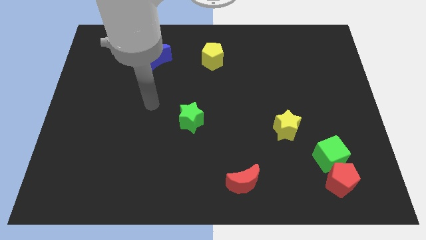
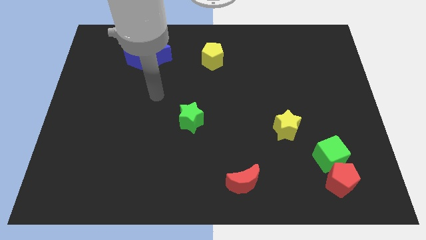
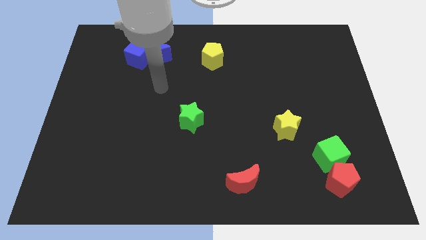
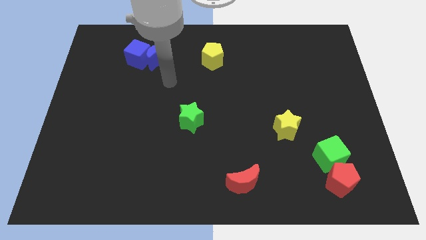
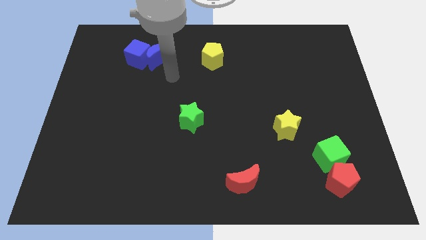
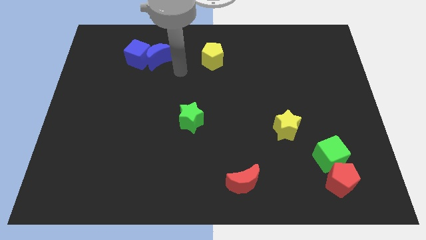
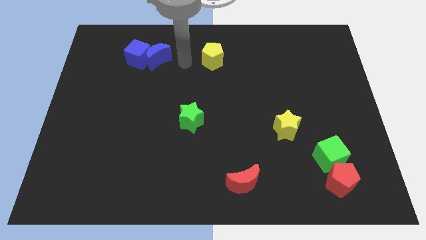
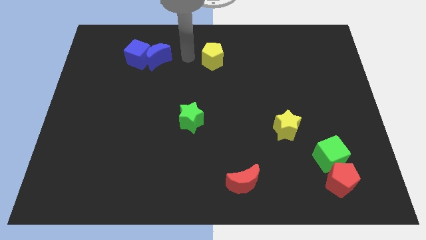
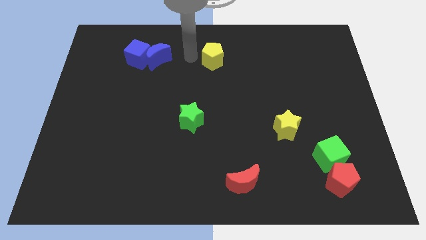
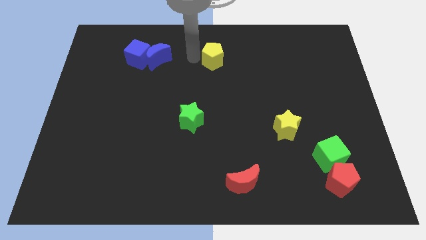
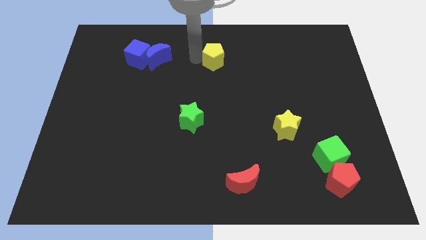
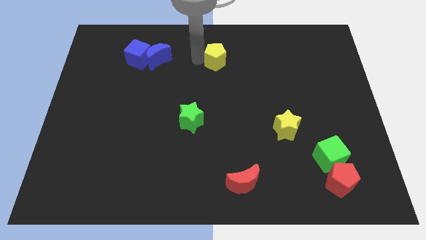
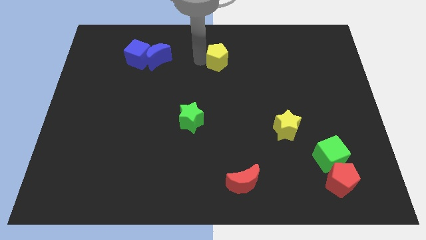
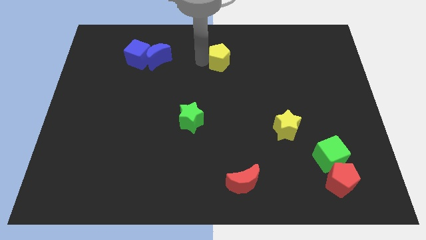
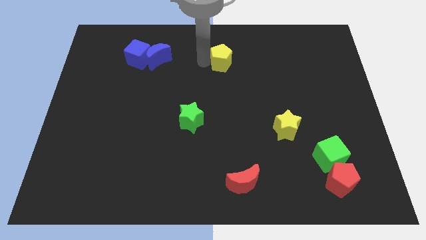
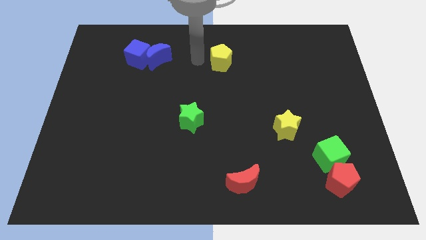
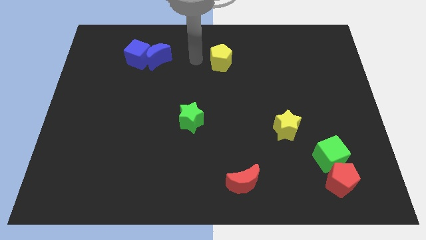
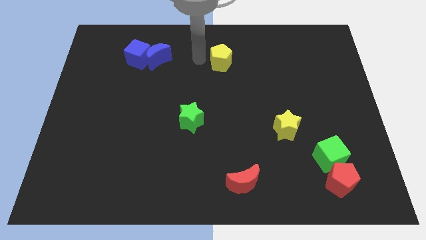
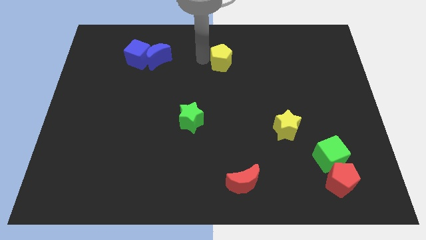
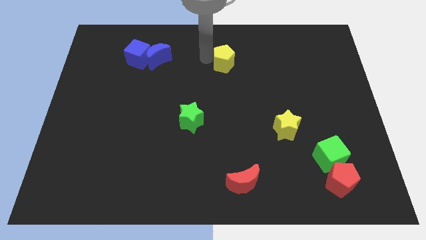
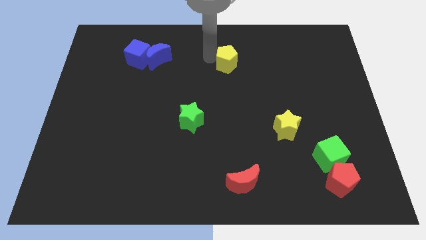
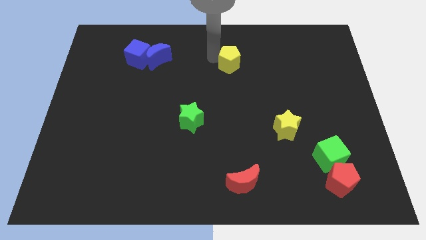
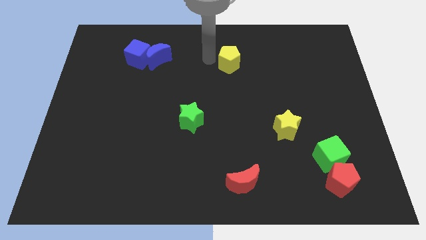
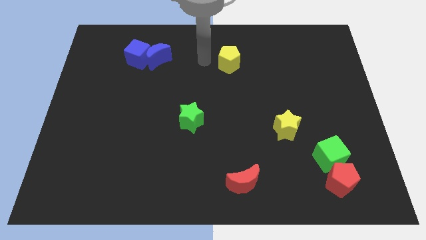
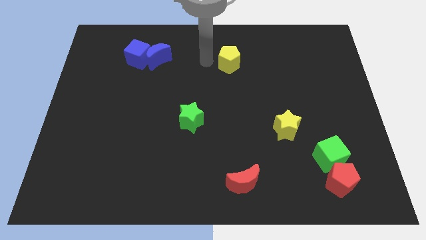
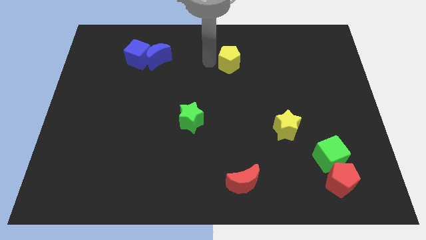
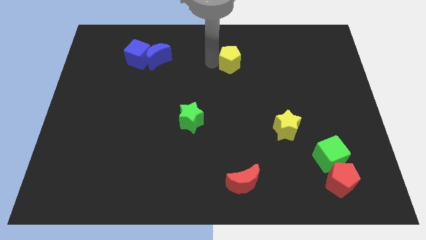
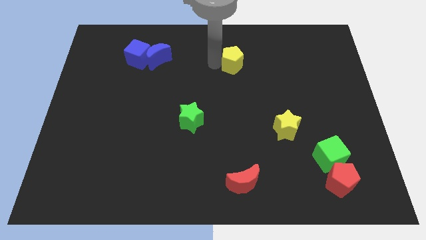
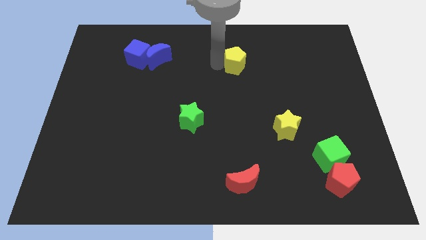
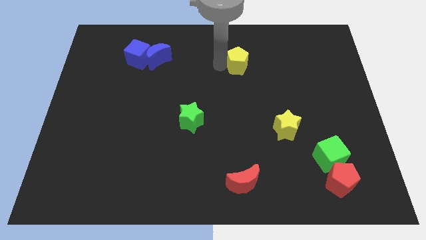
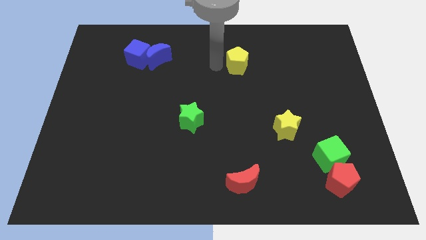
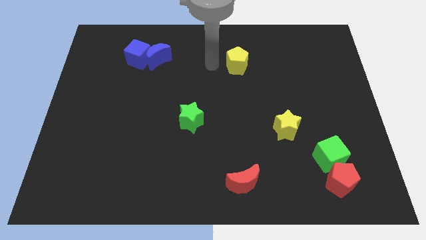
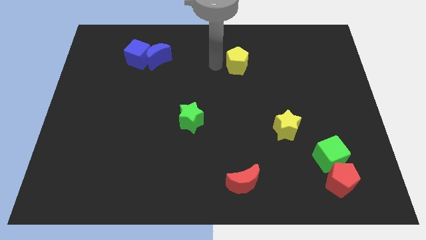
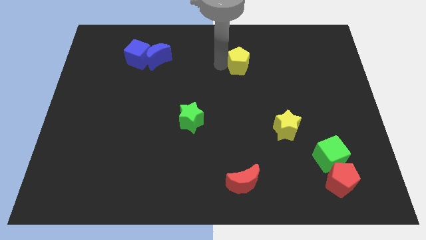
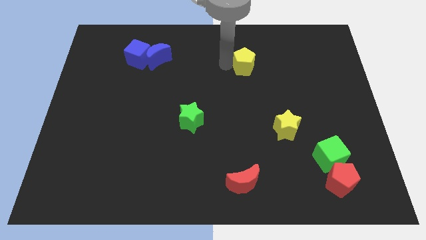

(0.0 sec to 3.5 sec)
push the yellow pentagon to the right a little

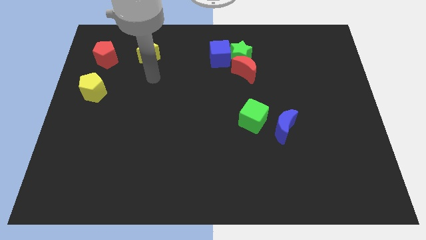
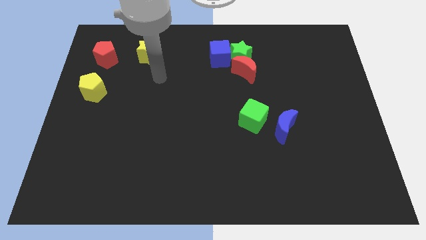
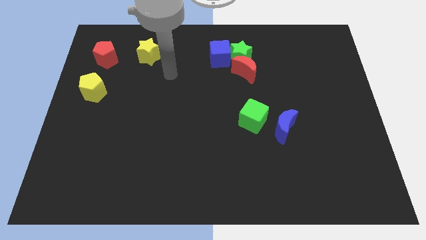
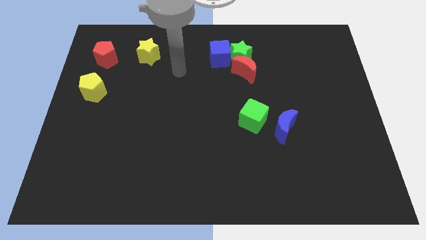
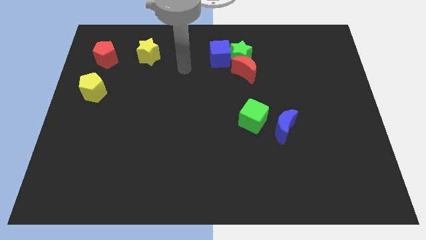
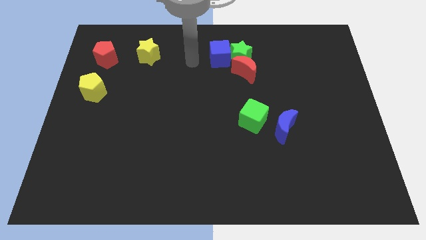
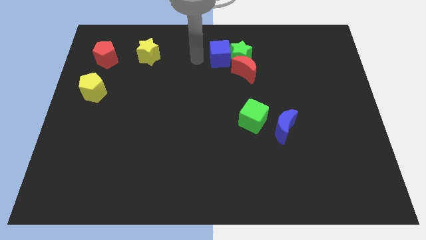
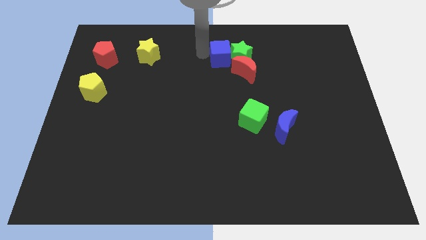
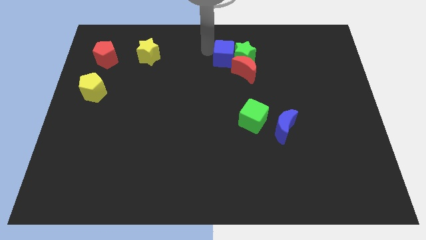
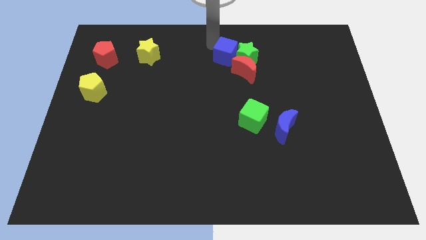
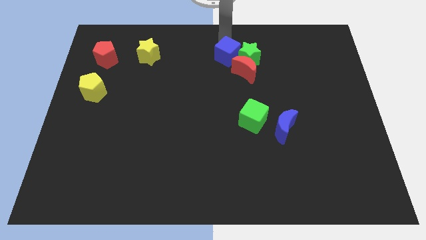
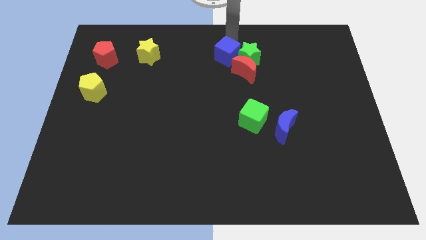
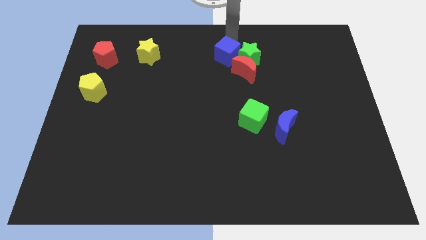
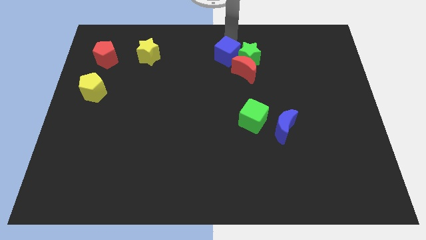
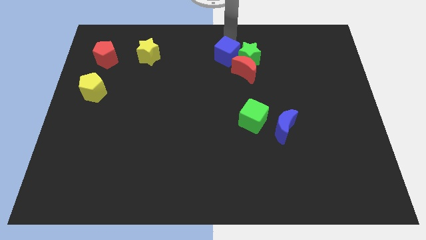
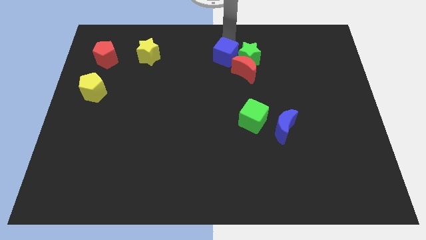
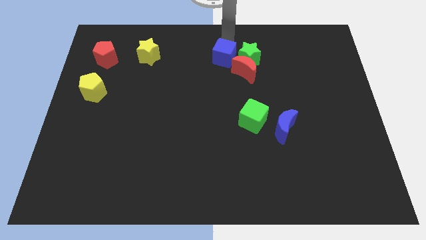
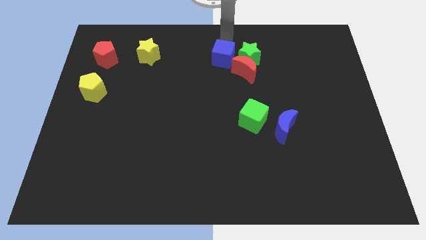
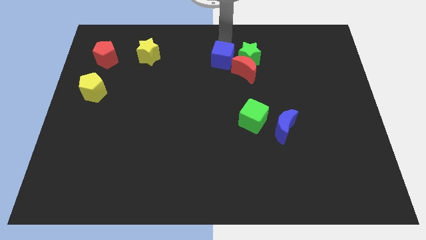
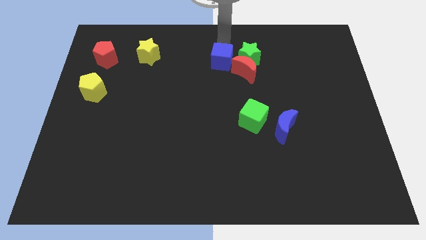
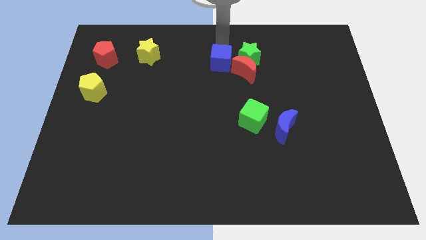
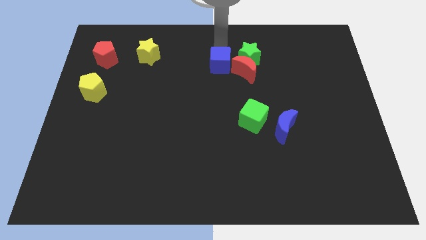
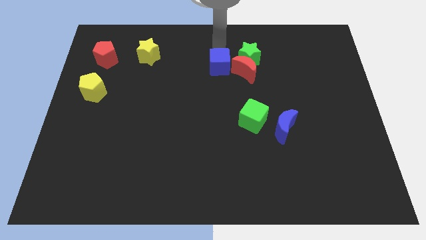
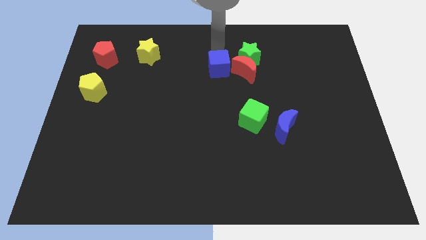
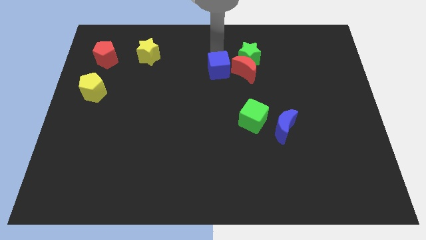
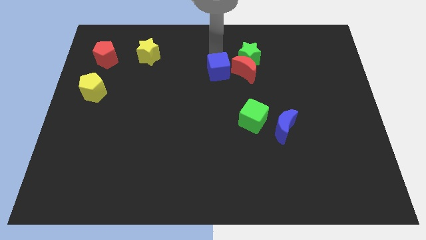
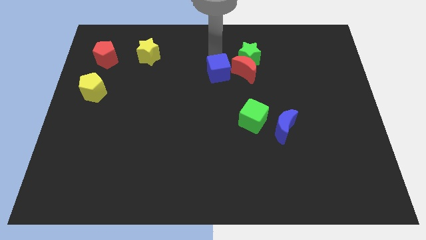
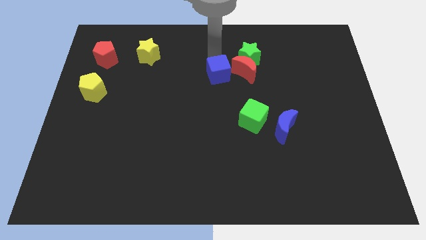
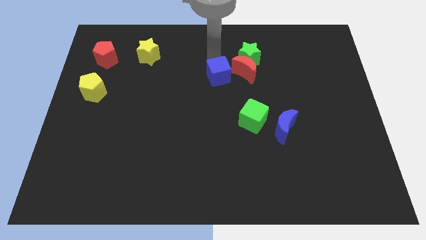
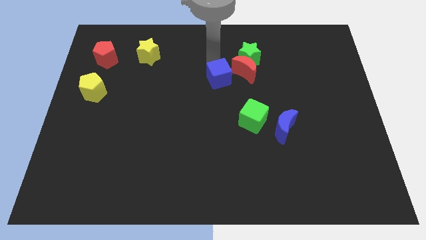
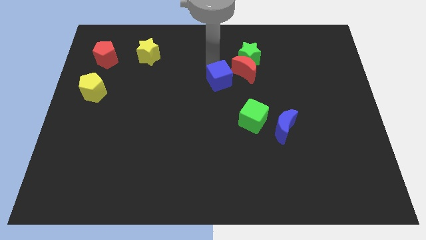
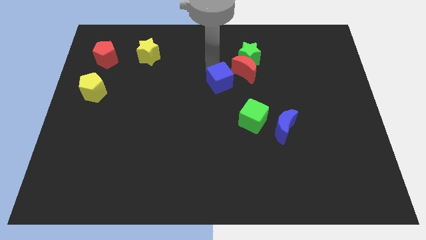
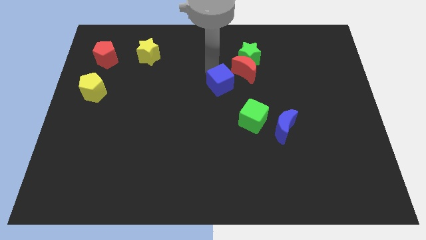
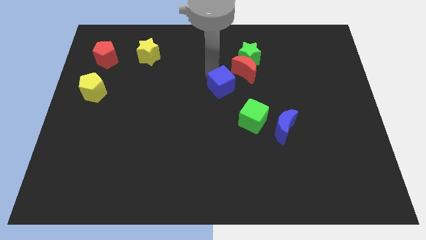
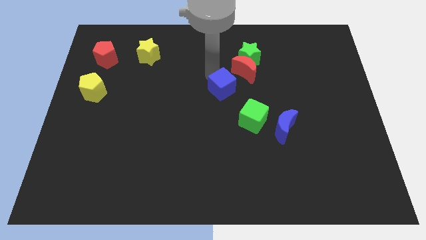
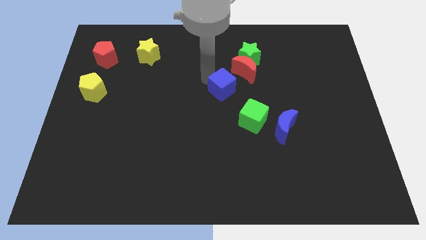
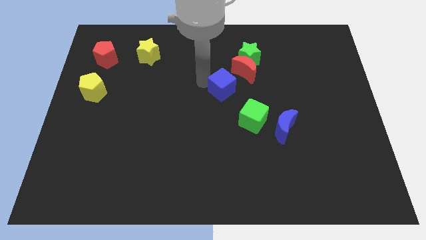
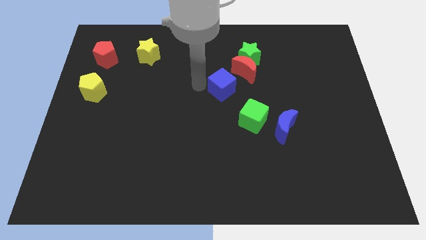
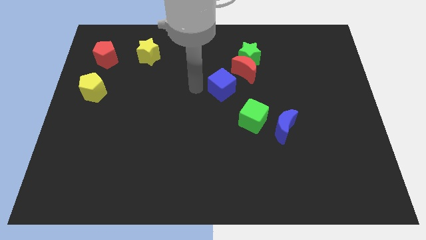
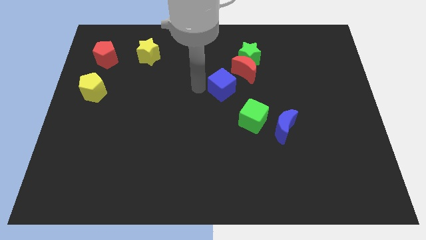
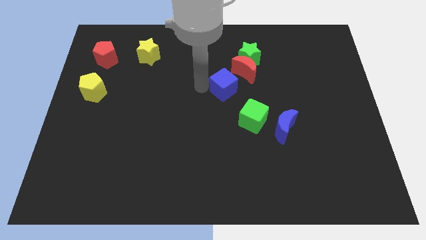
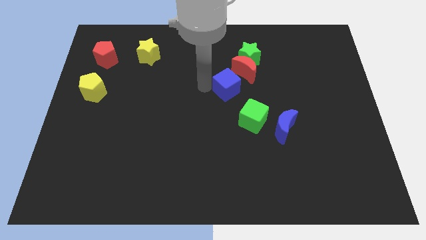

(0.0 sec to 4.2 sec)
move the blue cube a little bit downwards and to the right

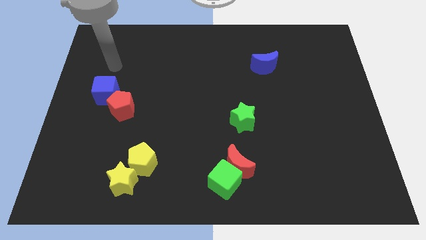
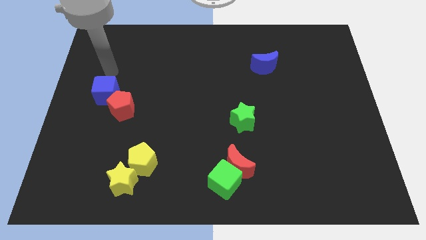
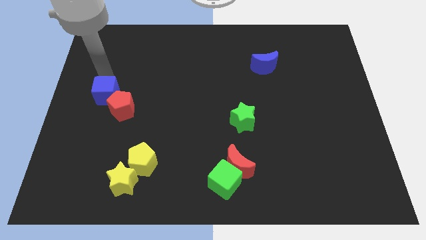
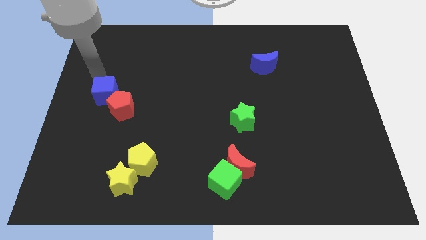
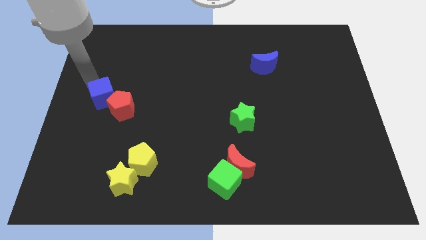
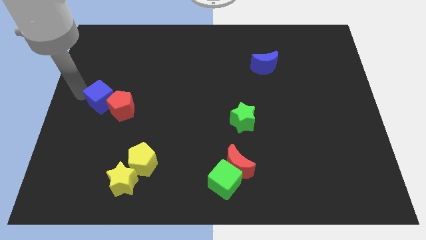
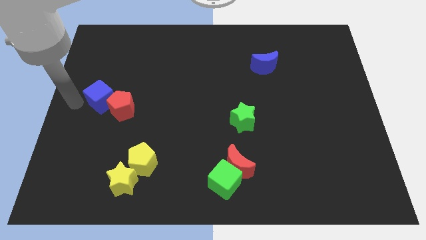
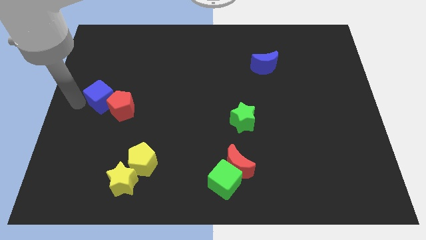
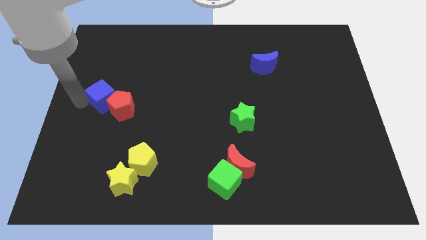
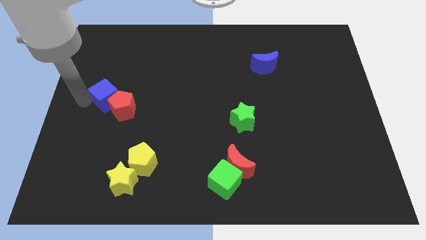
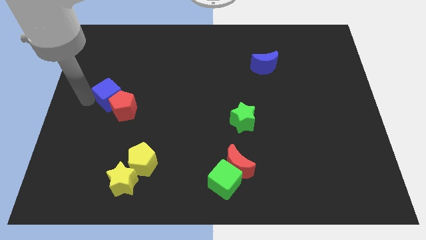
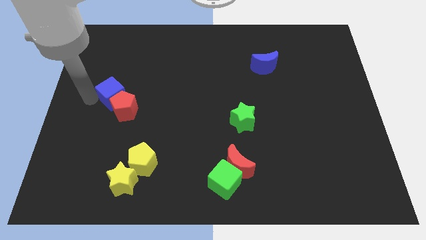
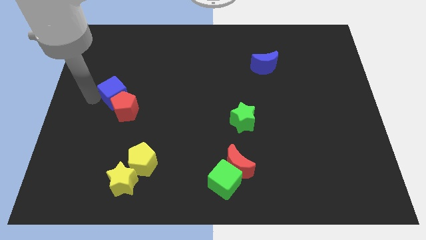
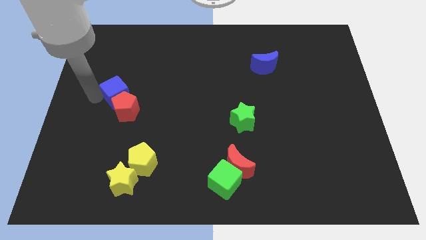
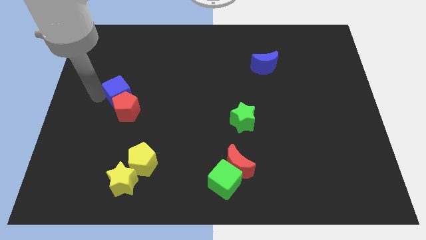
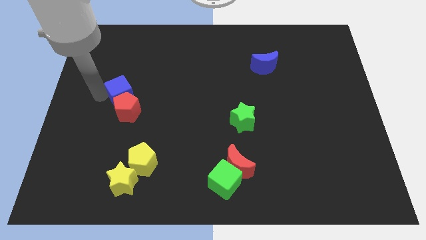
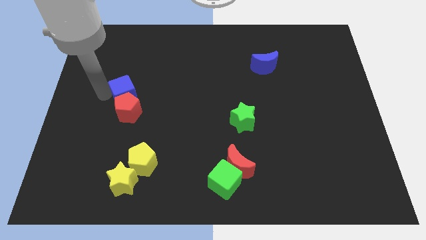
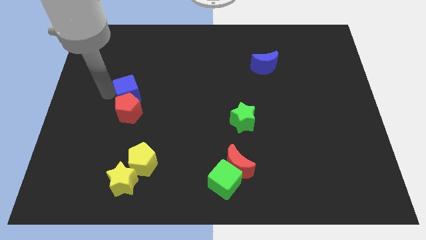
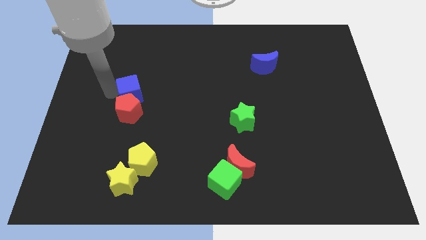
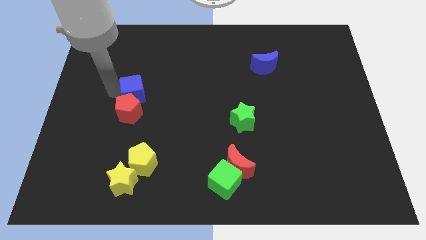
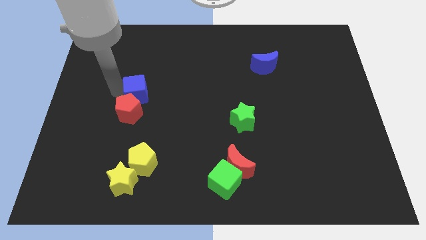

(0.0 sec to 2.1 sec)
push the blue cube right a little bit
